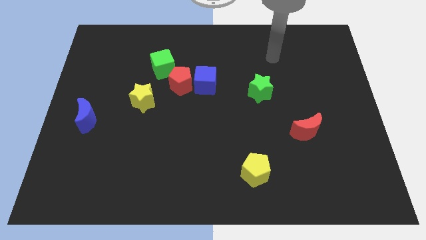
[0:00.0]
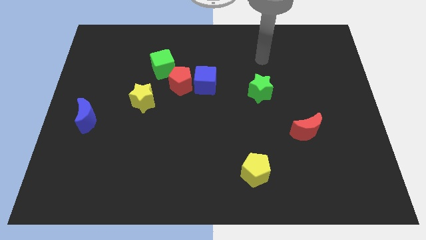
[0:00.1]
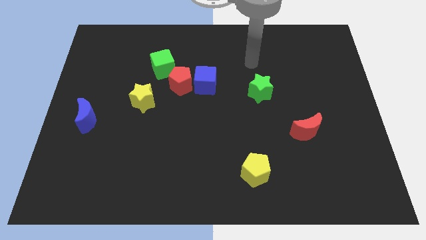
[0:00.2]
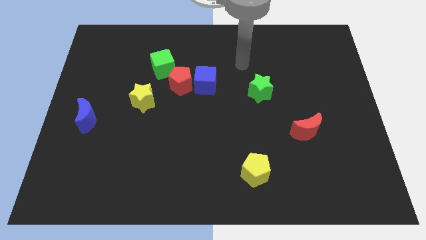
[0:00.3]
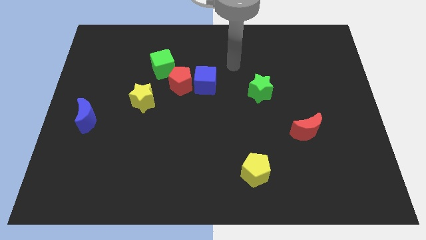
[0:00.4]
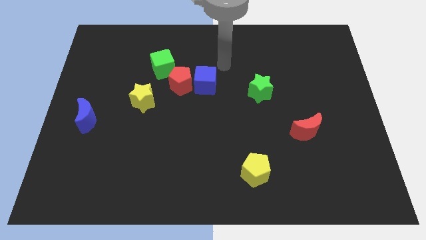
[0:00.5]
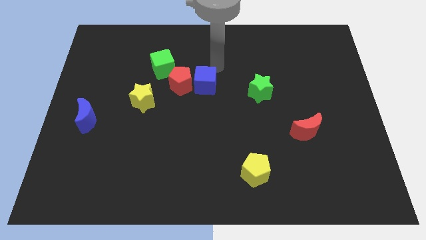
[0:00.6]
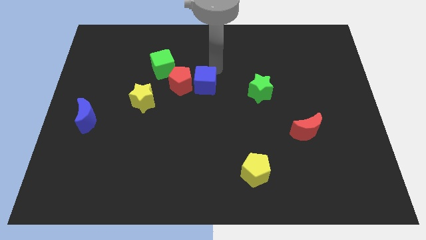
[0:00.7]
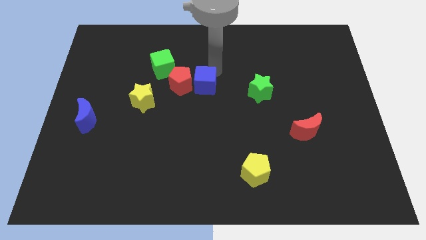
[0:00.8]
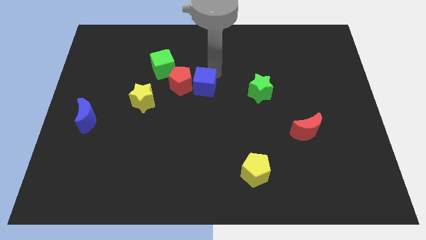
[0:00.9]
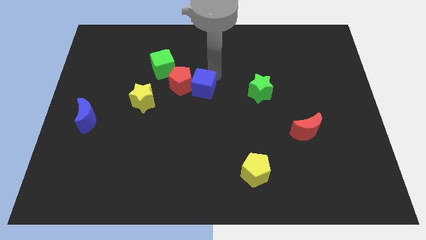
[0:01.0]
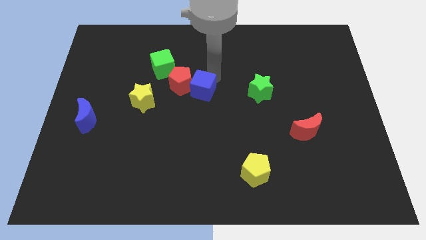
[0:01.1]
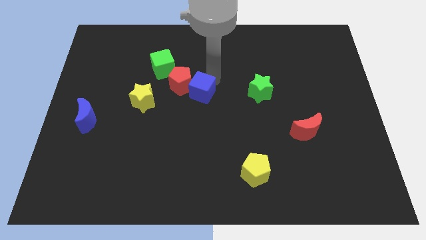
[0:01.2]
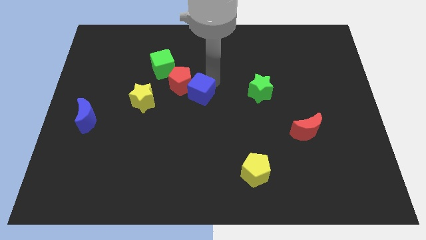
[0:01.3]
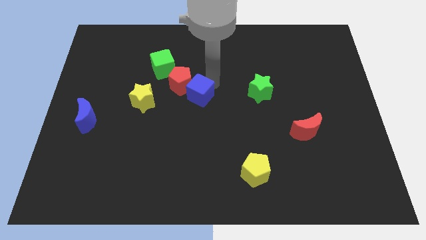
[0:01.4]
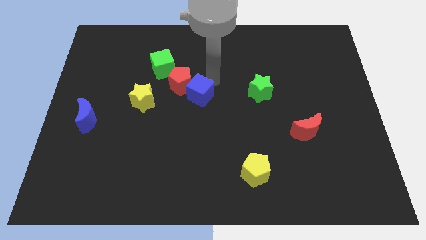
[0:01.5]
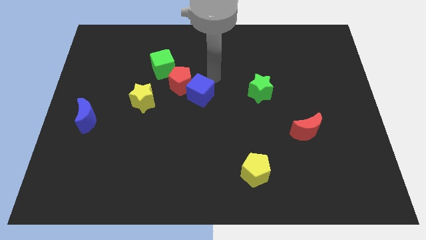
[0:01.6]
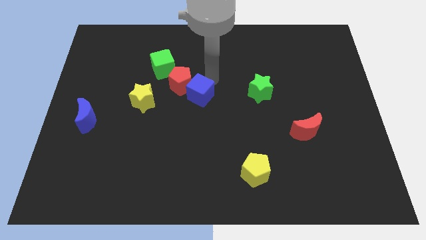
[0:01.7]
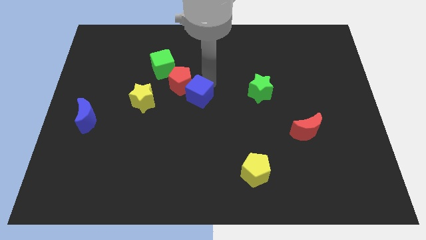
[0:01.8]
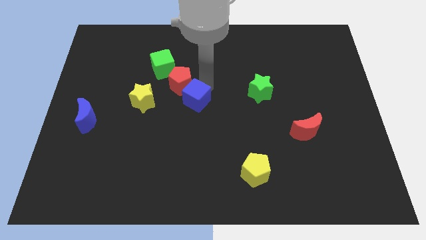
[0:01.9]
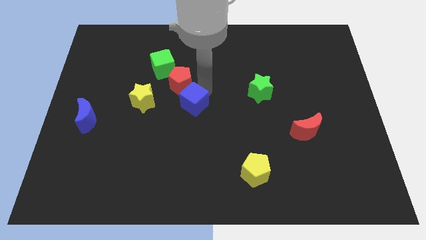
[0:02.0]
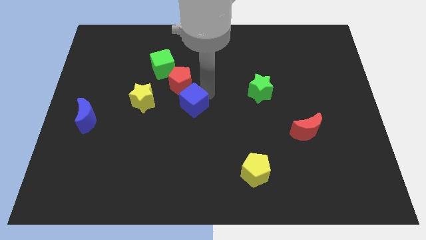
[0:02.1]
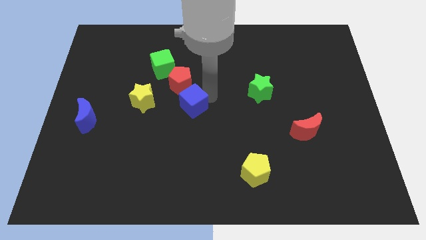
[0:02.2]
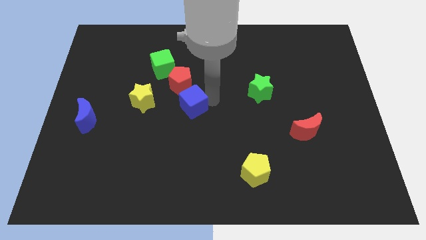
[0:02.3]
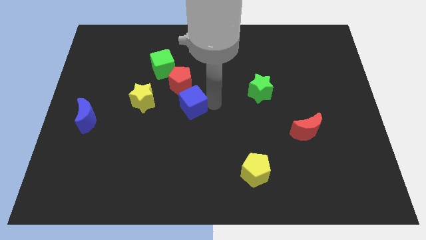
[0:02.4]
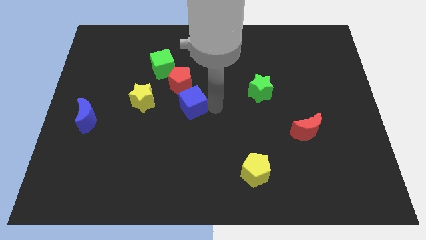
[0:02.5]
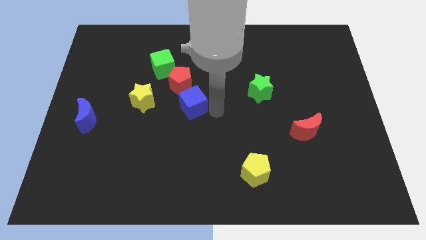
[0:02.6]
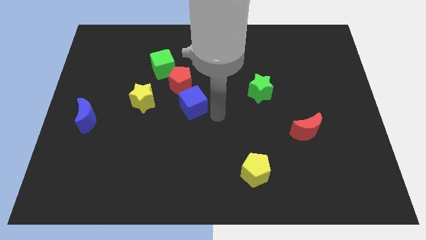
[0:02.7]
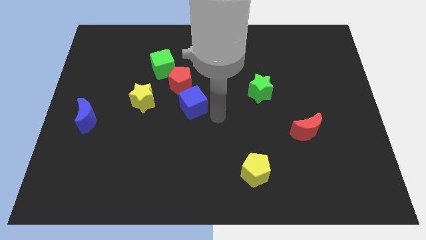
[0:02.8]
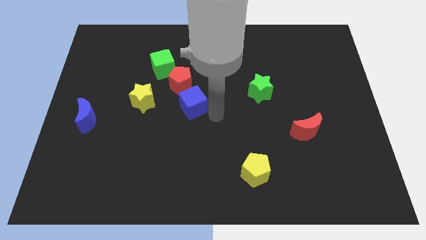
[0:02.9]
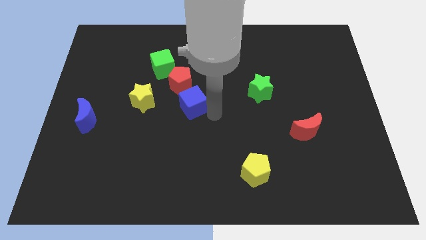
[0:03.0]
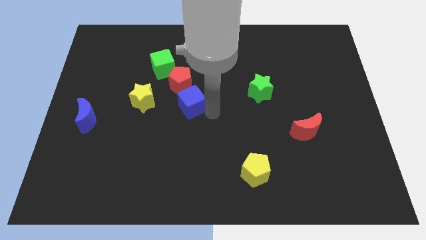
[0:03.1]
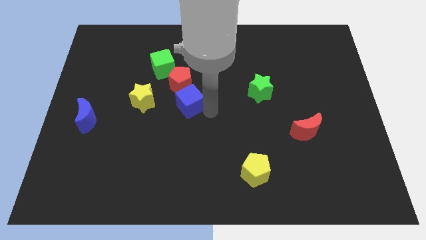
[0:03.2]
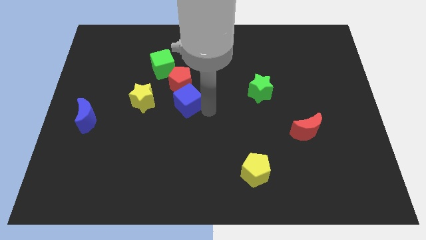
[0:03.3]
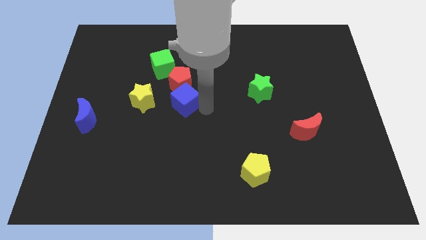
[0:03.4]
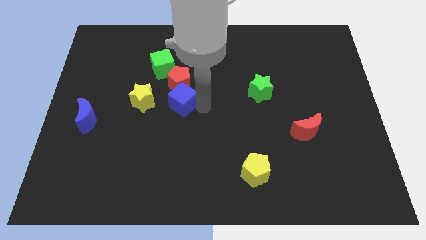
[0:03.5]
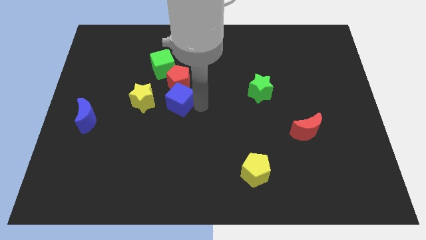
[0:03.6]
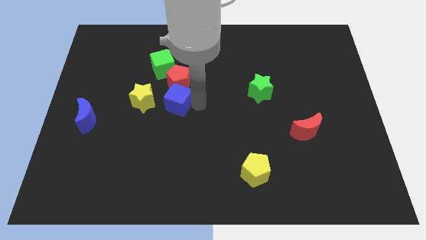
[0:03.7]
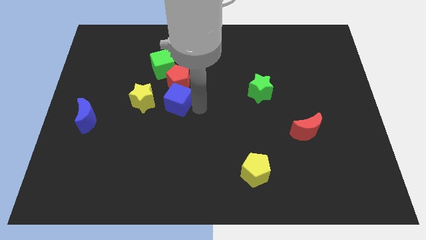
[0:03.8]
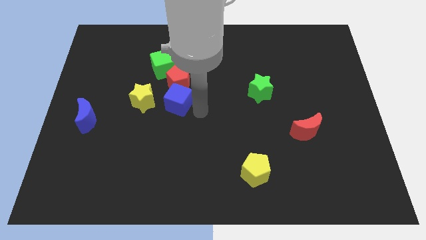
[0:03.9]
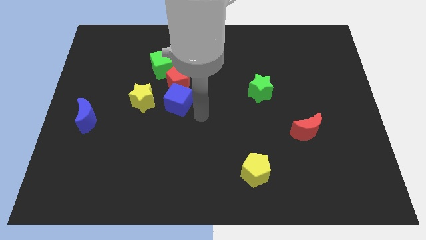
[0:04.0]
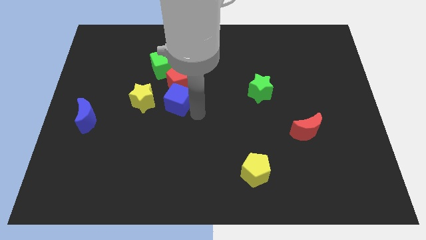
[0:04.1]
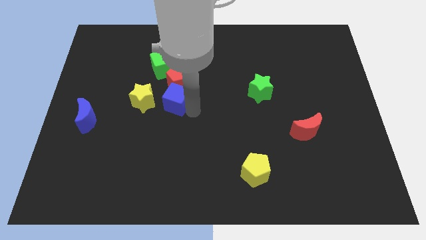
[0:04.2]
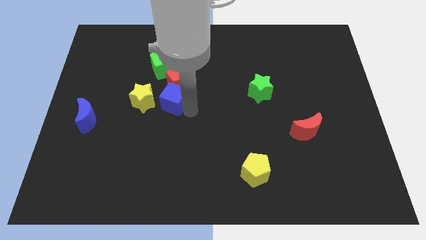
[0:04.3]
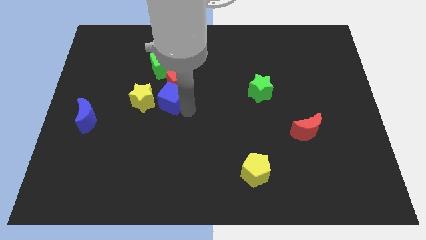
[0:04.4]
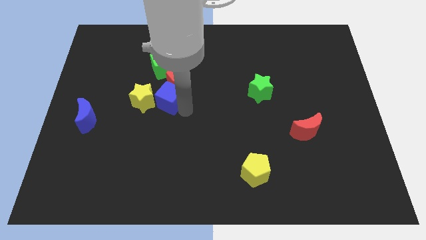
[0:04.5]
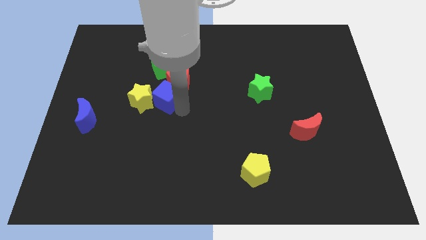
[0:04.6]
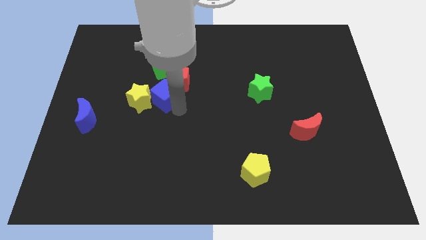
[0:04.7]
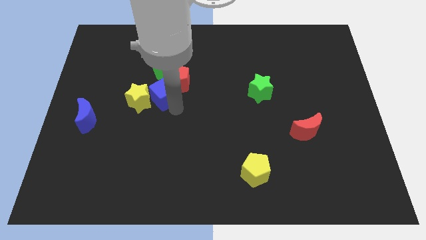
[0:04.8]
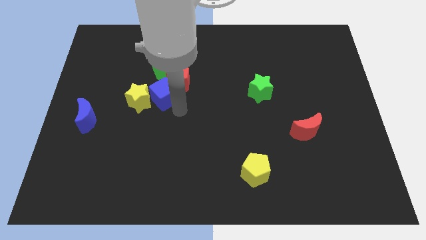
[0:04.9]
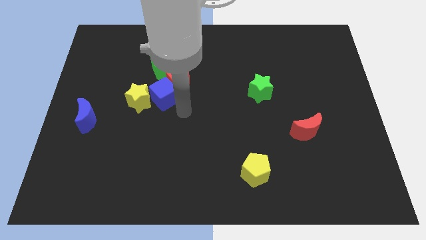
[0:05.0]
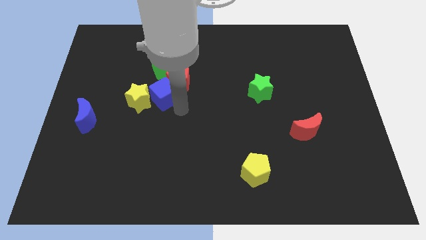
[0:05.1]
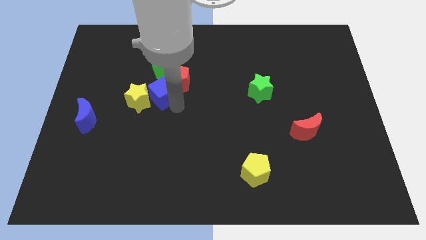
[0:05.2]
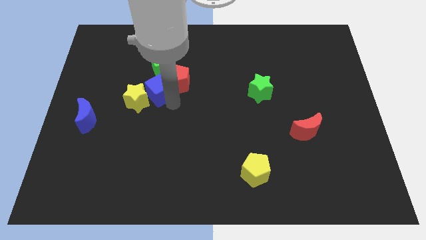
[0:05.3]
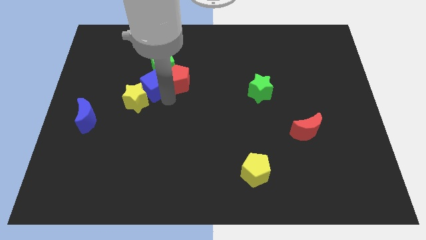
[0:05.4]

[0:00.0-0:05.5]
put the blue cube to the bottom left of the green cube

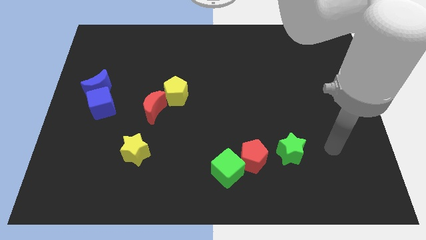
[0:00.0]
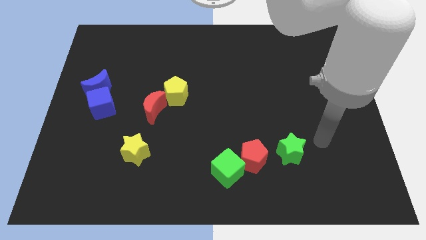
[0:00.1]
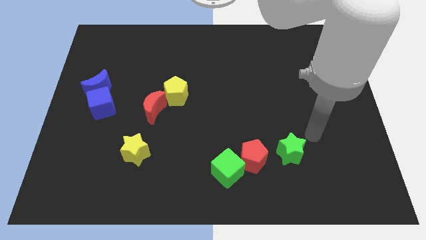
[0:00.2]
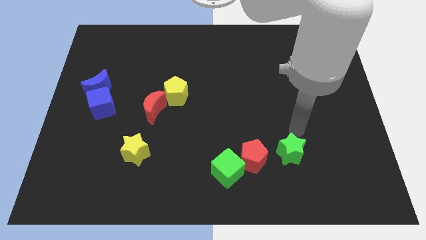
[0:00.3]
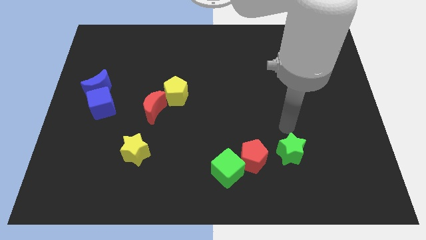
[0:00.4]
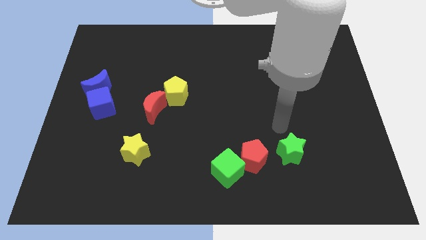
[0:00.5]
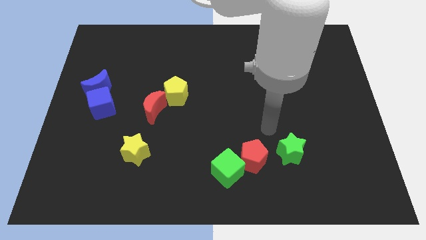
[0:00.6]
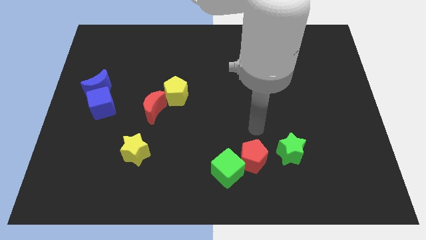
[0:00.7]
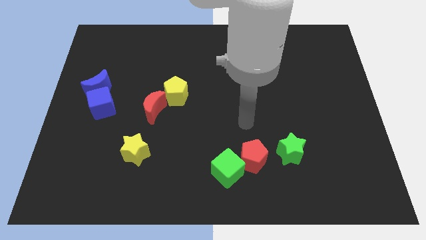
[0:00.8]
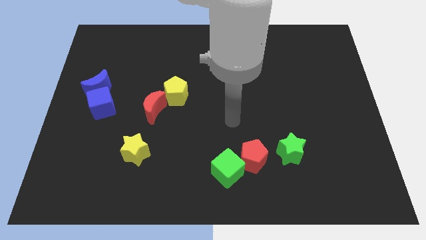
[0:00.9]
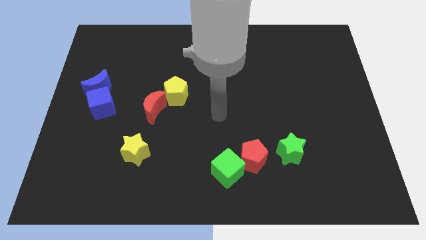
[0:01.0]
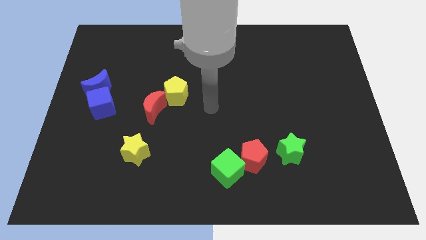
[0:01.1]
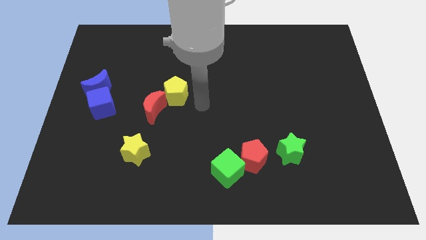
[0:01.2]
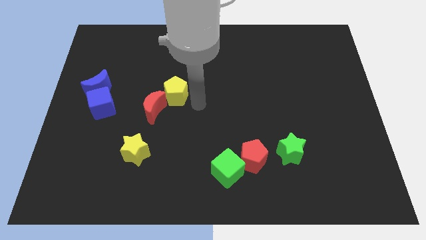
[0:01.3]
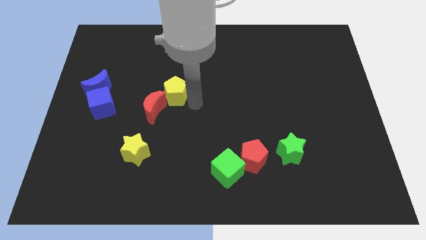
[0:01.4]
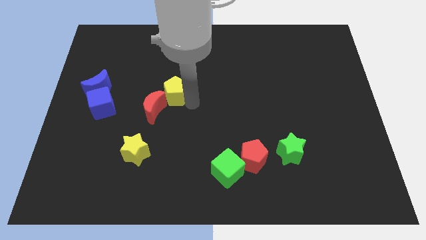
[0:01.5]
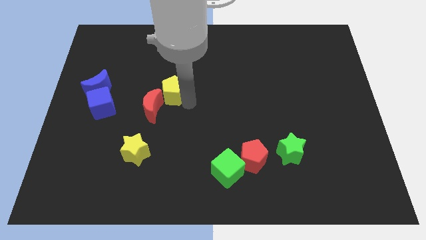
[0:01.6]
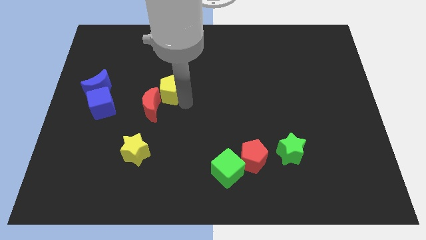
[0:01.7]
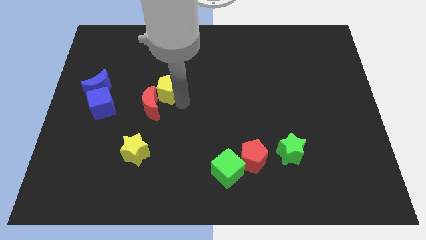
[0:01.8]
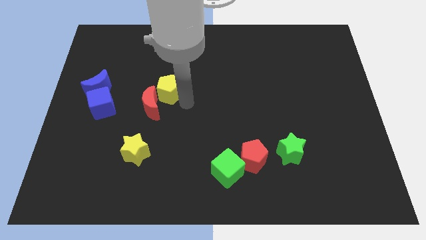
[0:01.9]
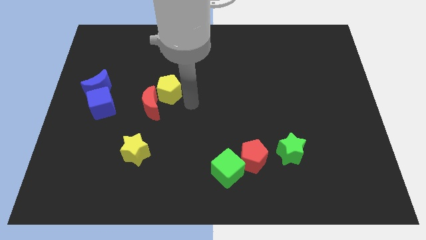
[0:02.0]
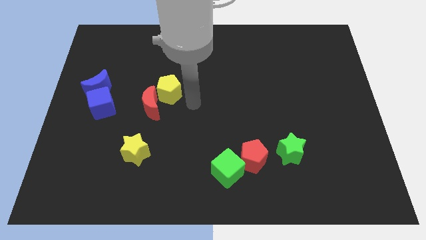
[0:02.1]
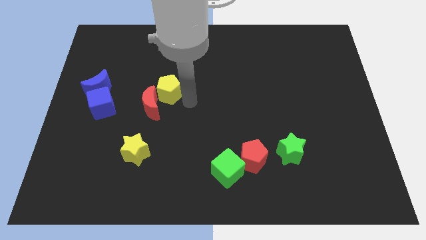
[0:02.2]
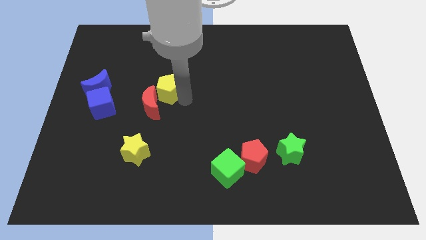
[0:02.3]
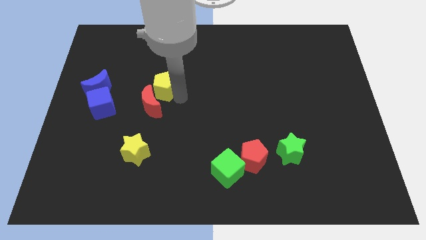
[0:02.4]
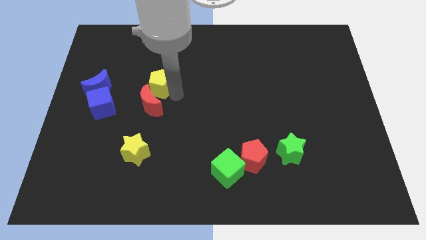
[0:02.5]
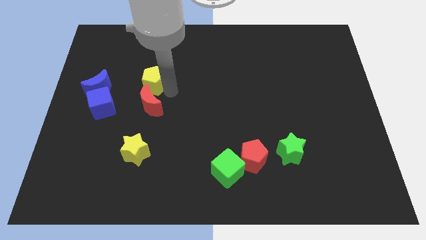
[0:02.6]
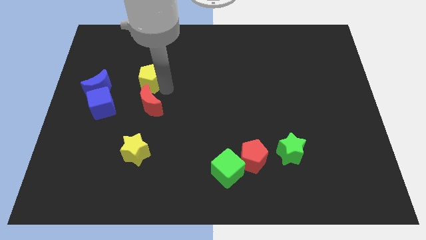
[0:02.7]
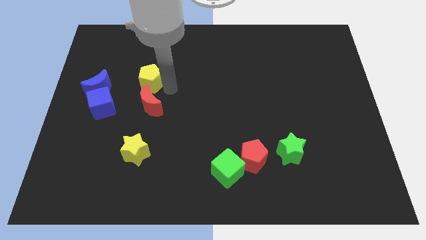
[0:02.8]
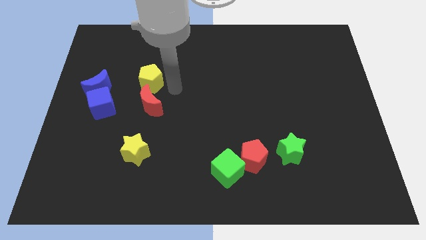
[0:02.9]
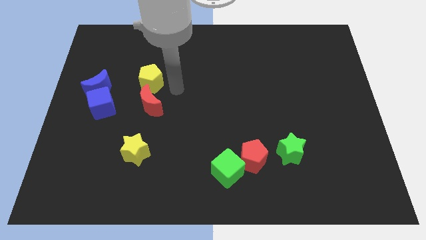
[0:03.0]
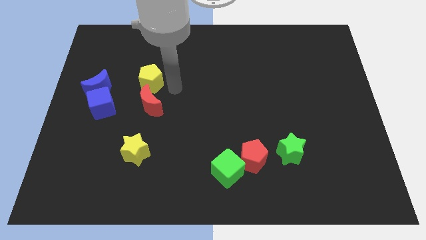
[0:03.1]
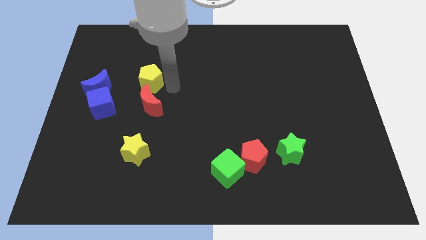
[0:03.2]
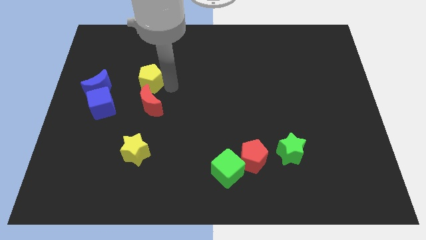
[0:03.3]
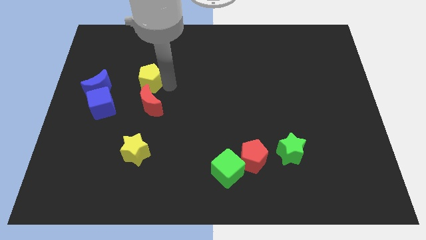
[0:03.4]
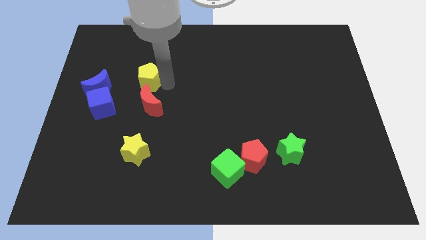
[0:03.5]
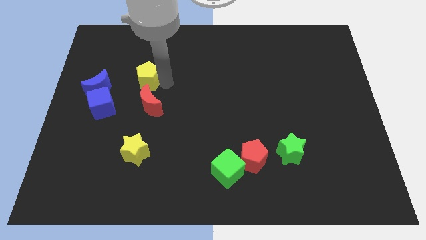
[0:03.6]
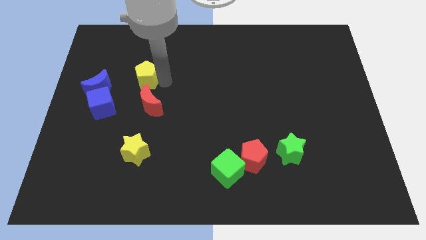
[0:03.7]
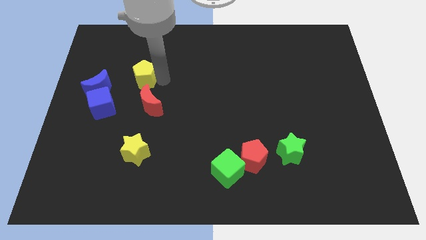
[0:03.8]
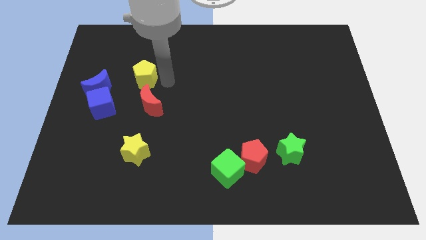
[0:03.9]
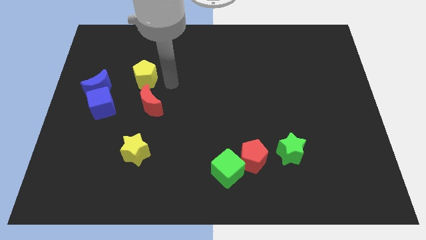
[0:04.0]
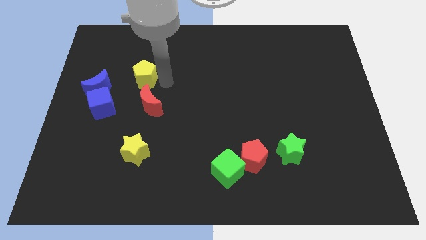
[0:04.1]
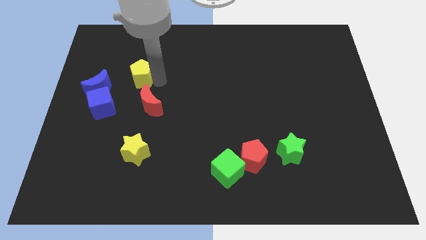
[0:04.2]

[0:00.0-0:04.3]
push the yellow pentagon to the top right of the blue moon
